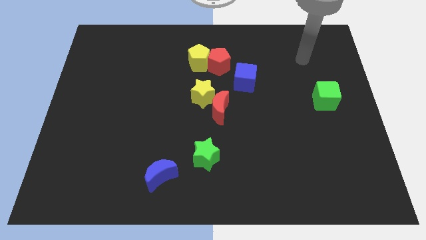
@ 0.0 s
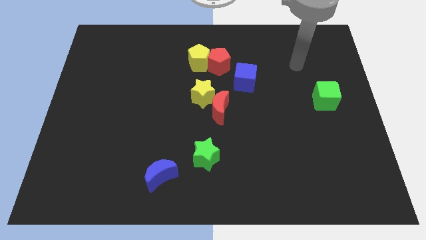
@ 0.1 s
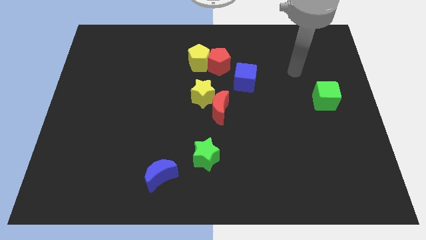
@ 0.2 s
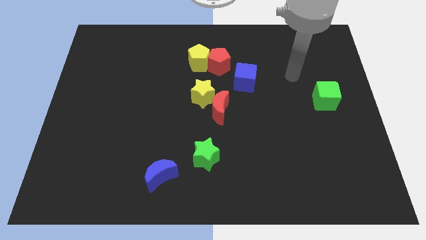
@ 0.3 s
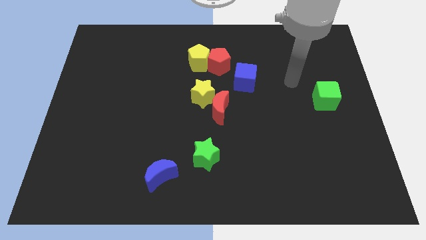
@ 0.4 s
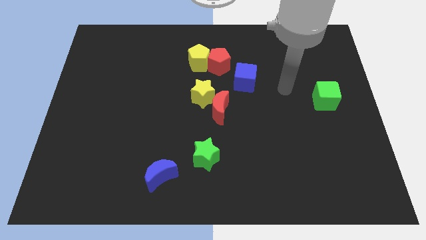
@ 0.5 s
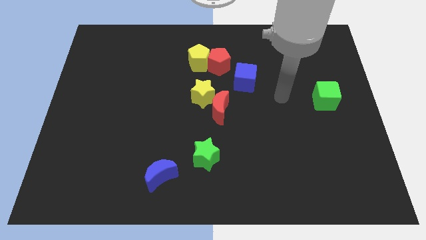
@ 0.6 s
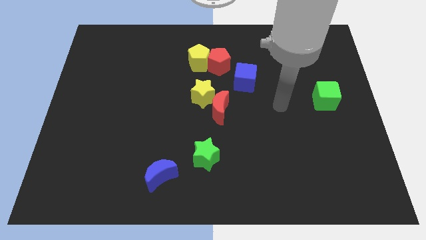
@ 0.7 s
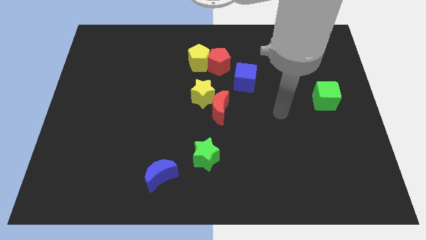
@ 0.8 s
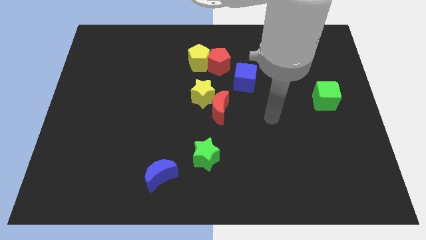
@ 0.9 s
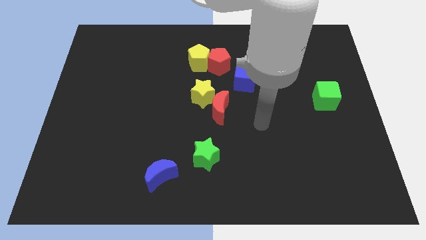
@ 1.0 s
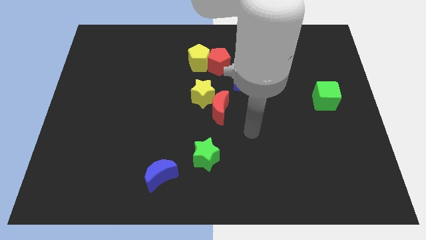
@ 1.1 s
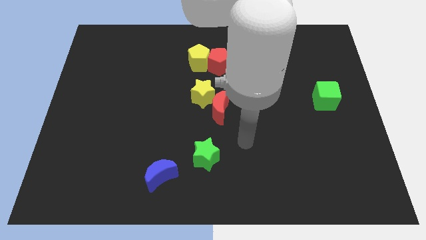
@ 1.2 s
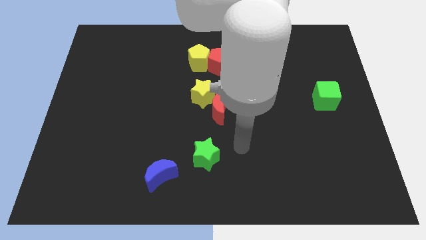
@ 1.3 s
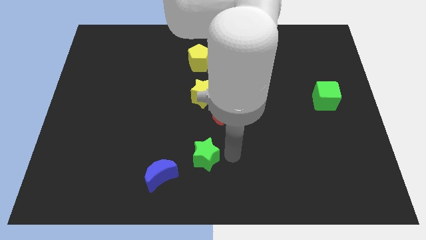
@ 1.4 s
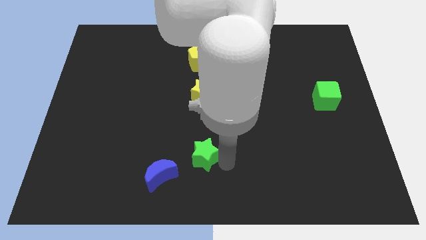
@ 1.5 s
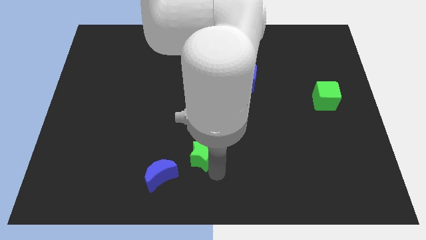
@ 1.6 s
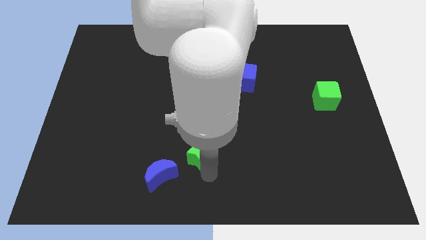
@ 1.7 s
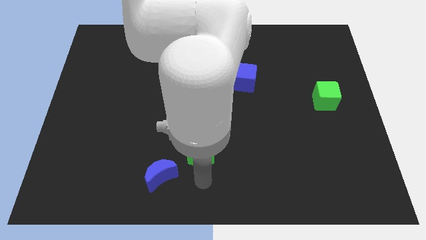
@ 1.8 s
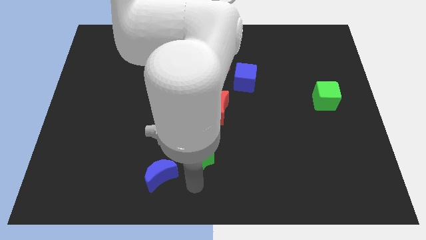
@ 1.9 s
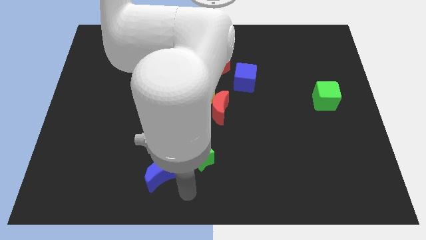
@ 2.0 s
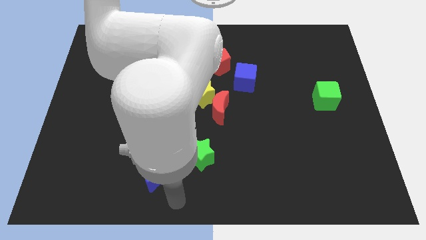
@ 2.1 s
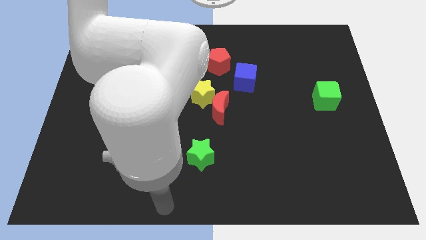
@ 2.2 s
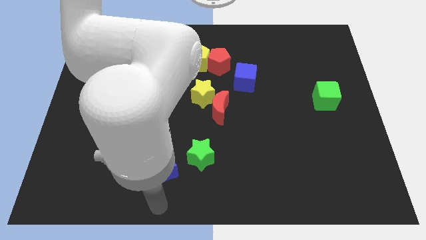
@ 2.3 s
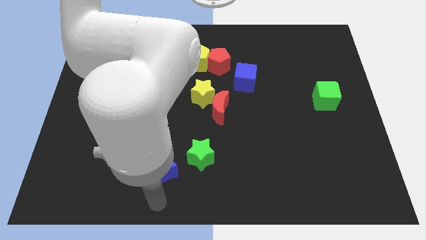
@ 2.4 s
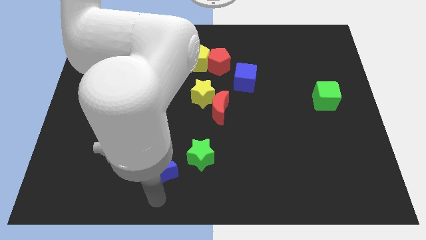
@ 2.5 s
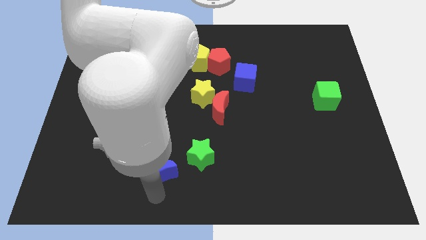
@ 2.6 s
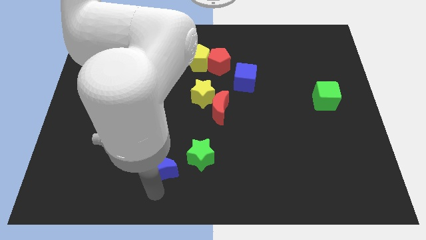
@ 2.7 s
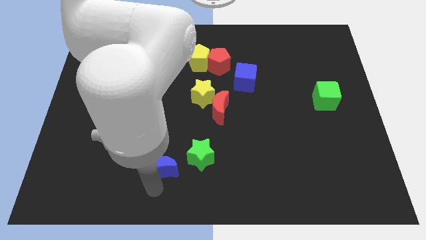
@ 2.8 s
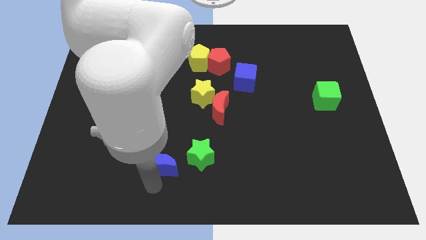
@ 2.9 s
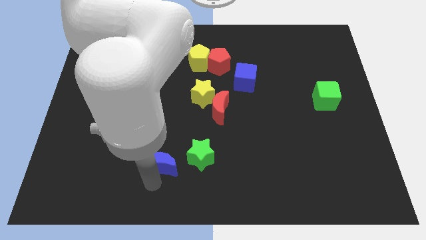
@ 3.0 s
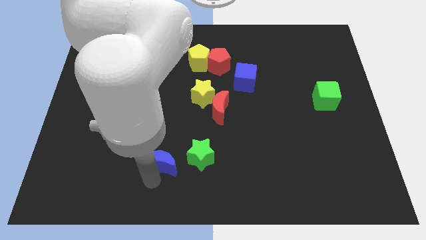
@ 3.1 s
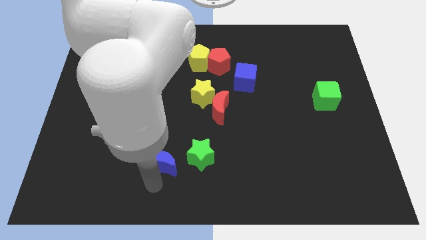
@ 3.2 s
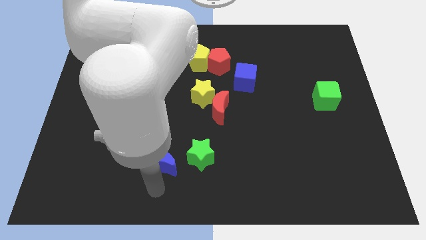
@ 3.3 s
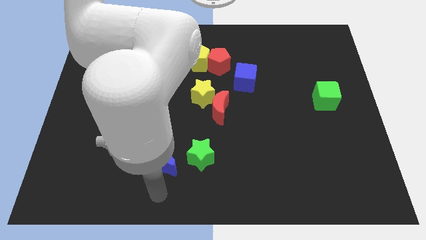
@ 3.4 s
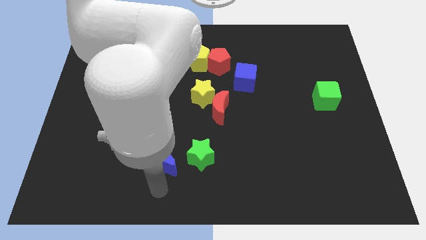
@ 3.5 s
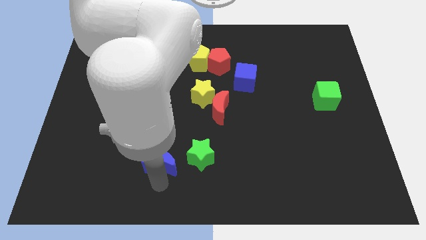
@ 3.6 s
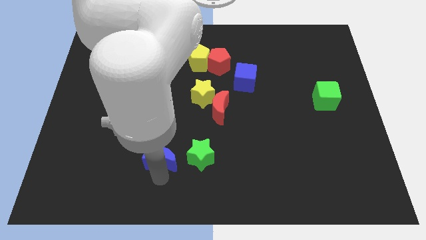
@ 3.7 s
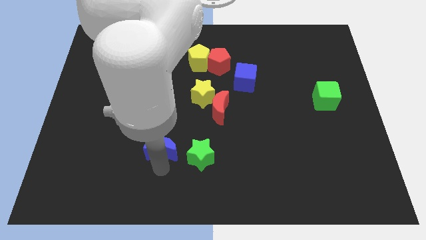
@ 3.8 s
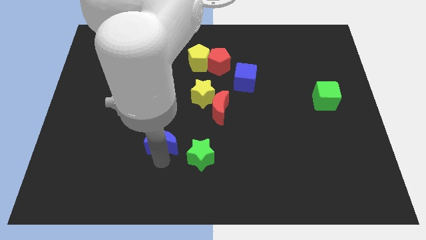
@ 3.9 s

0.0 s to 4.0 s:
push the blue moon somewhat upwards

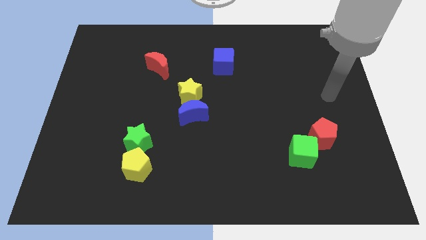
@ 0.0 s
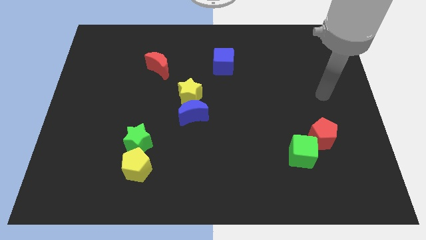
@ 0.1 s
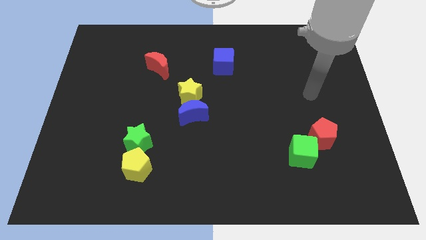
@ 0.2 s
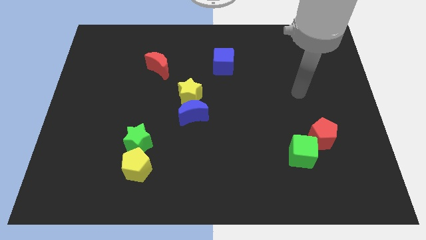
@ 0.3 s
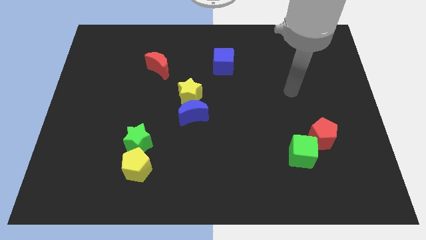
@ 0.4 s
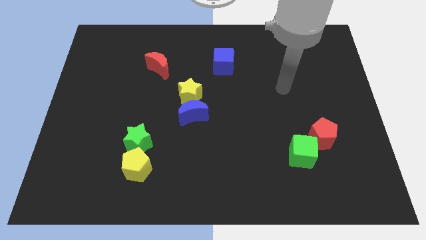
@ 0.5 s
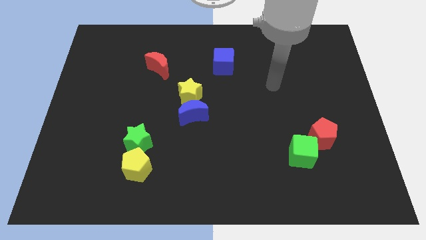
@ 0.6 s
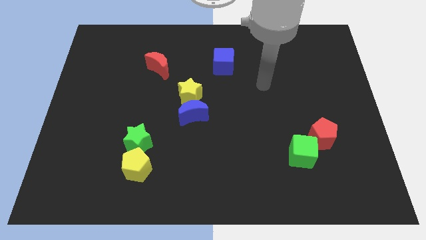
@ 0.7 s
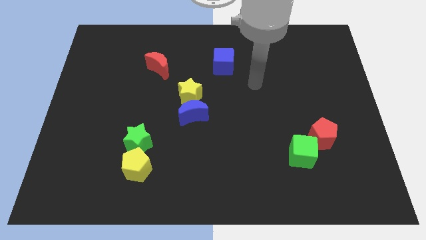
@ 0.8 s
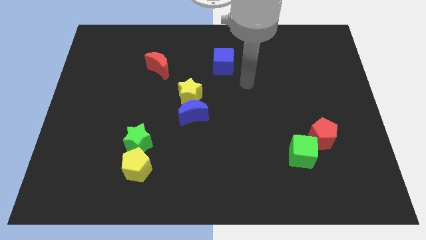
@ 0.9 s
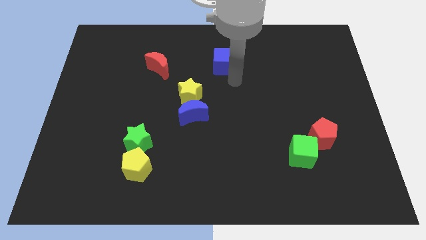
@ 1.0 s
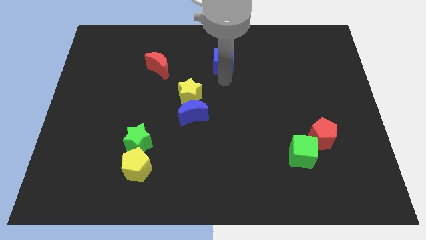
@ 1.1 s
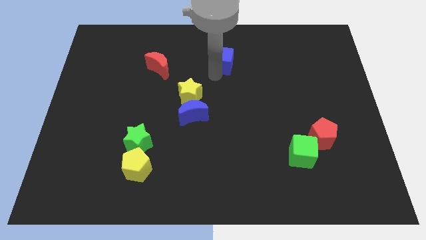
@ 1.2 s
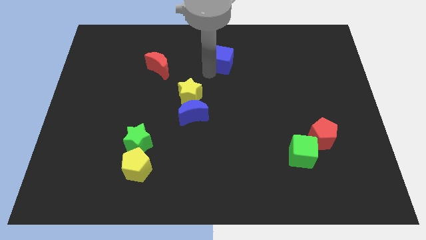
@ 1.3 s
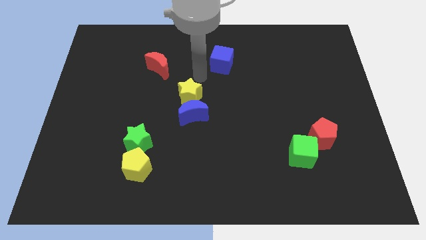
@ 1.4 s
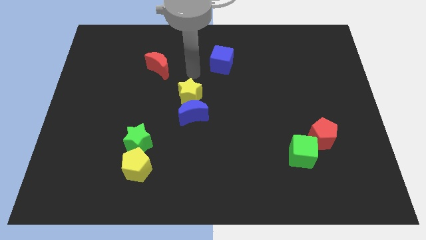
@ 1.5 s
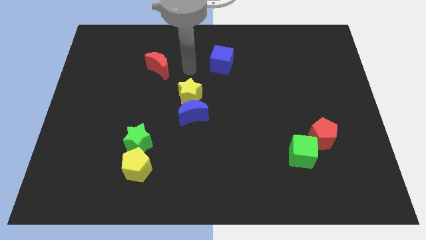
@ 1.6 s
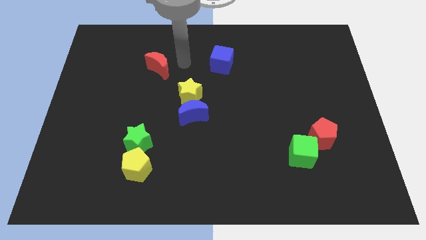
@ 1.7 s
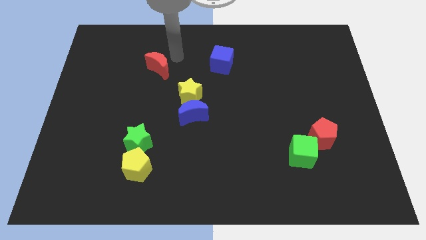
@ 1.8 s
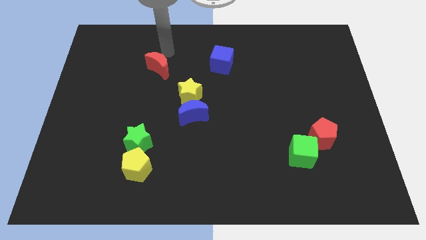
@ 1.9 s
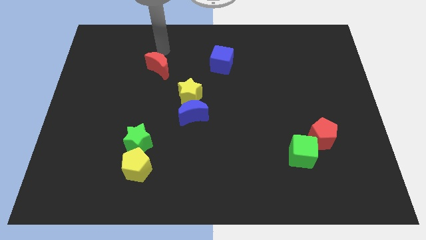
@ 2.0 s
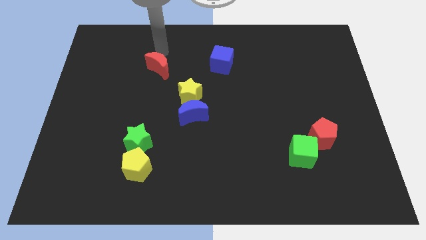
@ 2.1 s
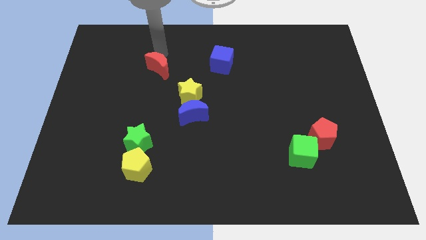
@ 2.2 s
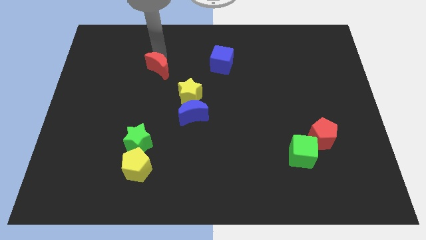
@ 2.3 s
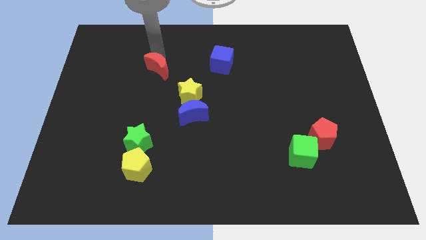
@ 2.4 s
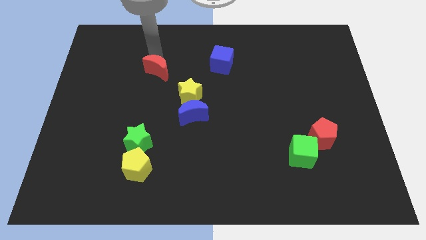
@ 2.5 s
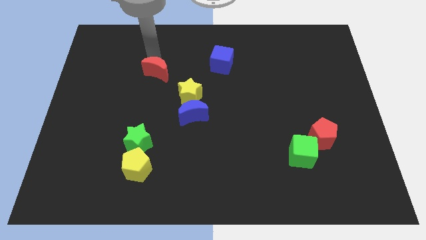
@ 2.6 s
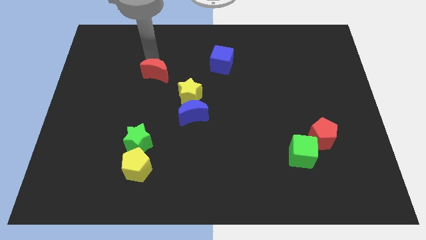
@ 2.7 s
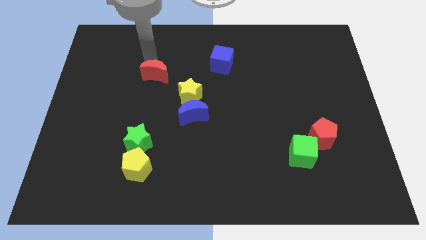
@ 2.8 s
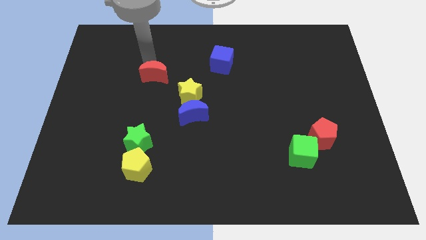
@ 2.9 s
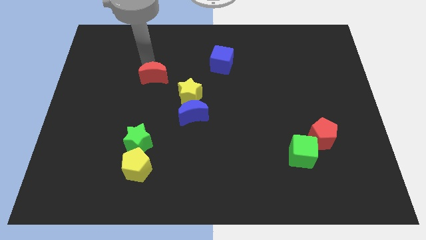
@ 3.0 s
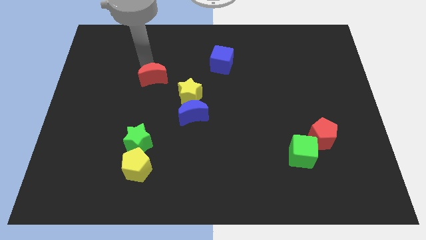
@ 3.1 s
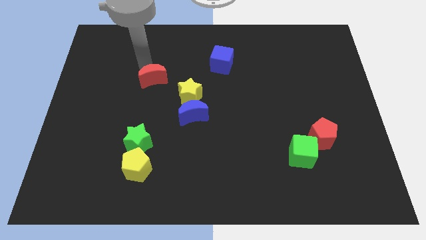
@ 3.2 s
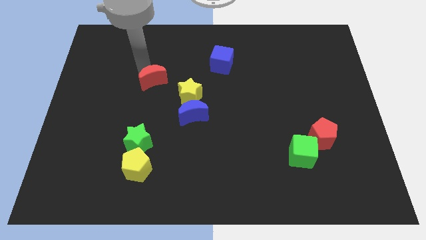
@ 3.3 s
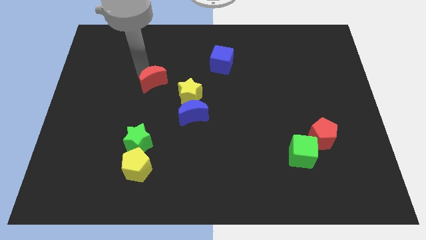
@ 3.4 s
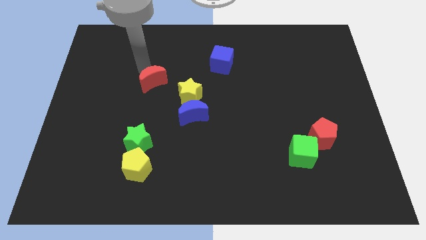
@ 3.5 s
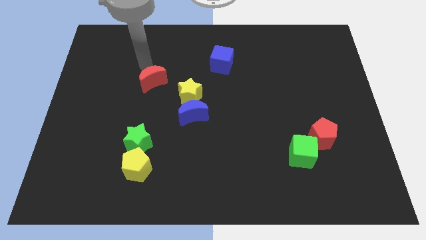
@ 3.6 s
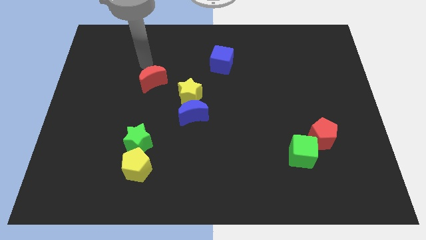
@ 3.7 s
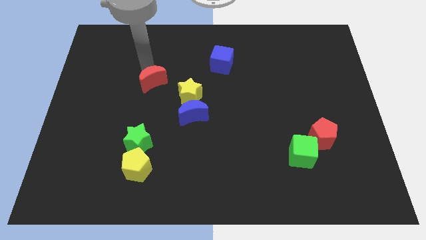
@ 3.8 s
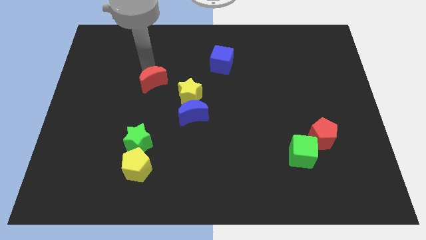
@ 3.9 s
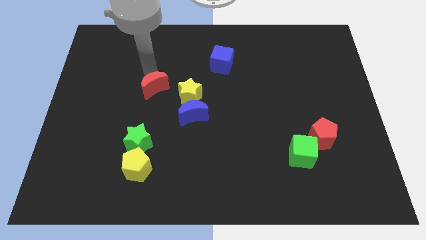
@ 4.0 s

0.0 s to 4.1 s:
slide the red moon down a little

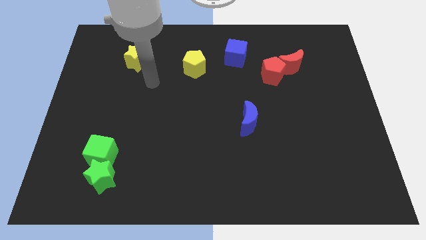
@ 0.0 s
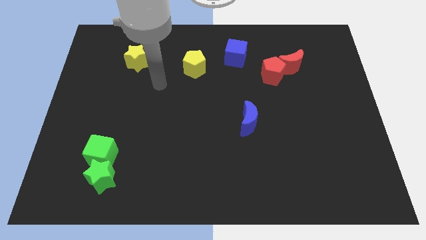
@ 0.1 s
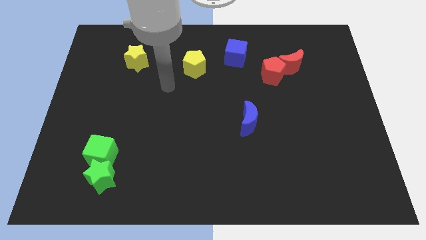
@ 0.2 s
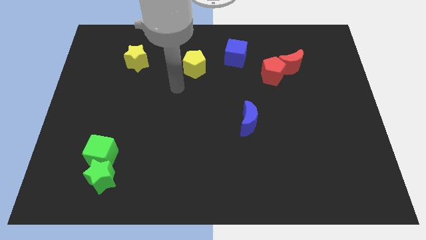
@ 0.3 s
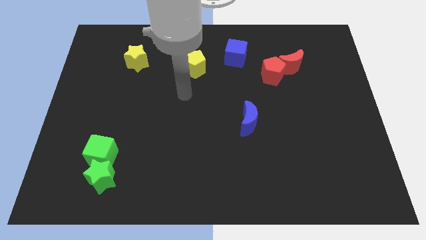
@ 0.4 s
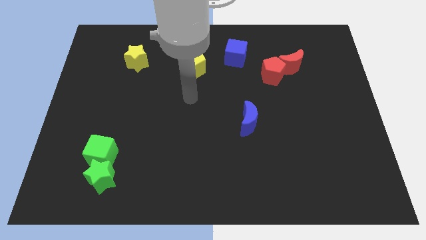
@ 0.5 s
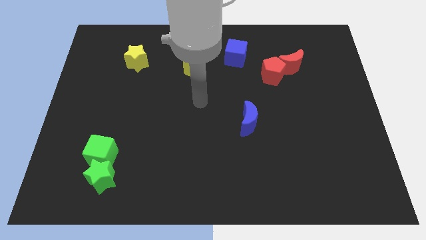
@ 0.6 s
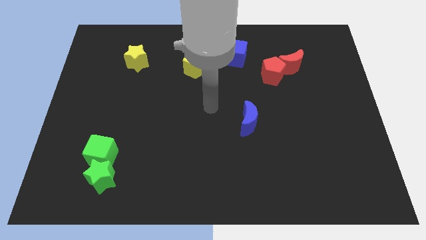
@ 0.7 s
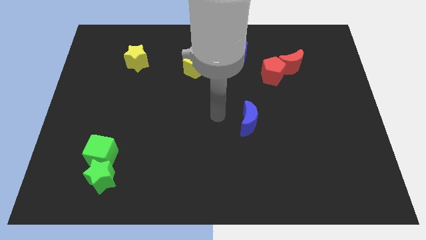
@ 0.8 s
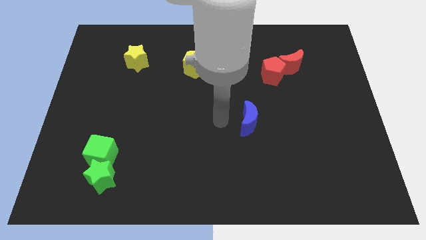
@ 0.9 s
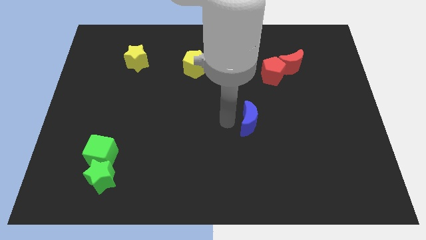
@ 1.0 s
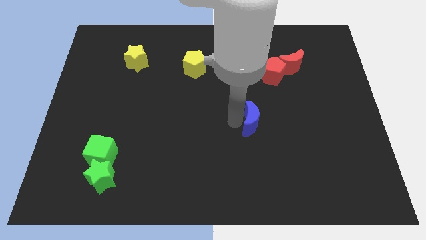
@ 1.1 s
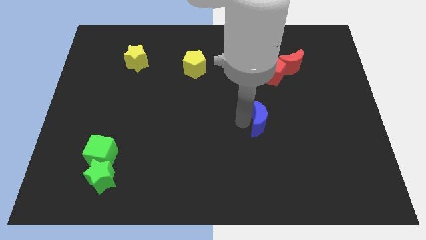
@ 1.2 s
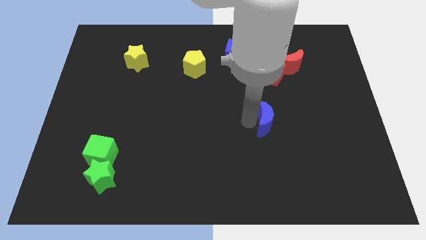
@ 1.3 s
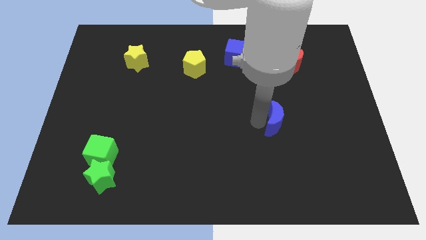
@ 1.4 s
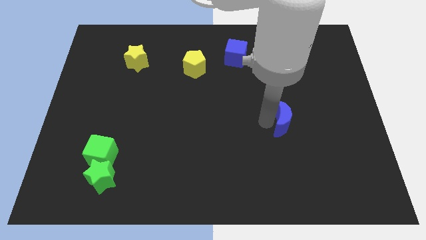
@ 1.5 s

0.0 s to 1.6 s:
move the blue moon a little right
